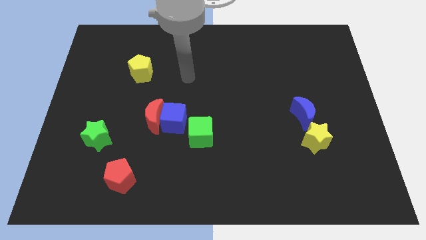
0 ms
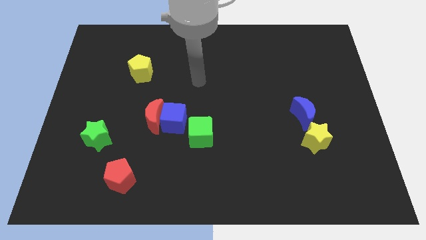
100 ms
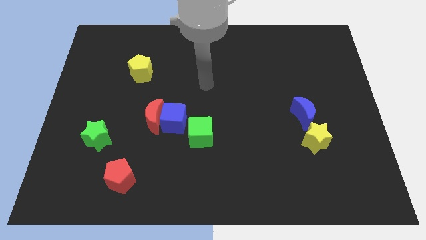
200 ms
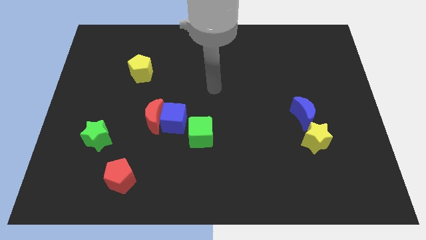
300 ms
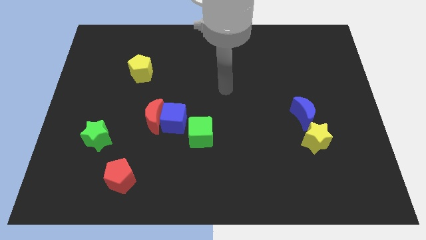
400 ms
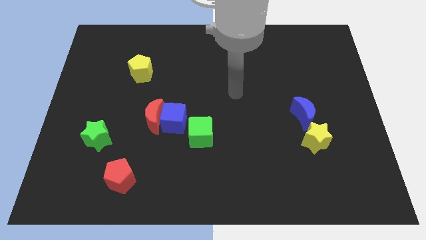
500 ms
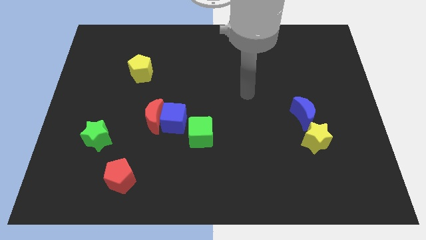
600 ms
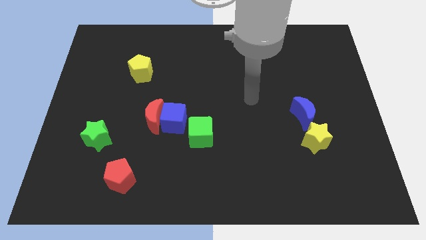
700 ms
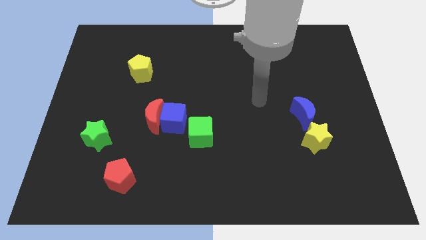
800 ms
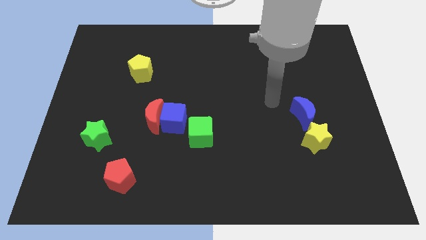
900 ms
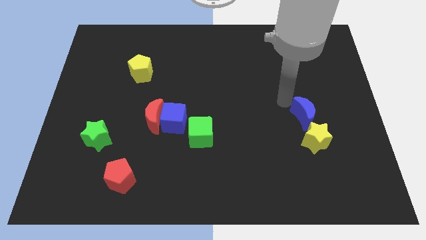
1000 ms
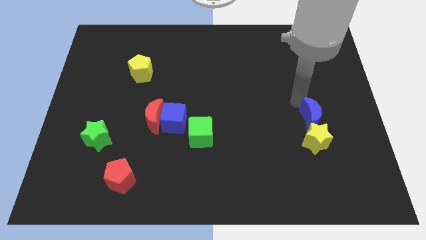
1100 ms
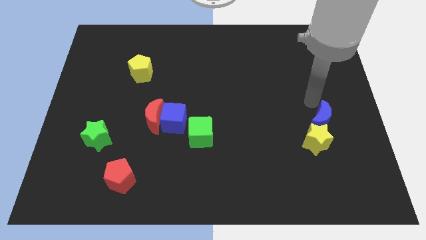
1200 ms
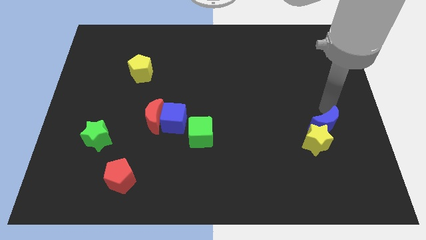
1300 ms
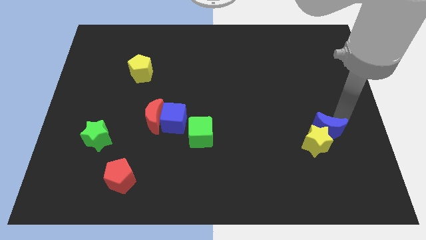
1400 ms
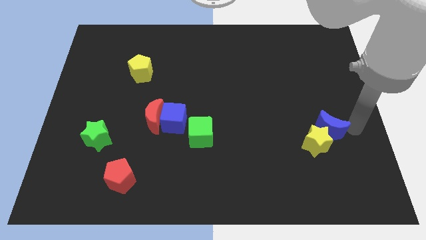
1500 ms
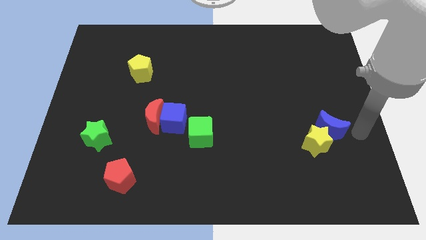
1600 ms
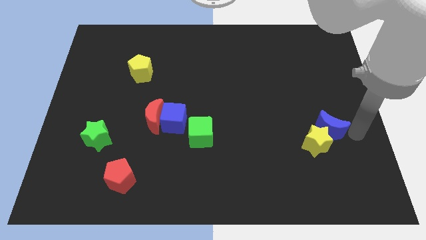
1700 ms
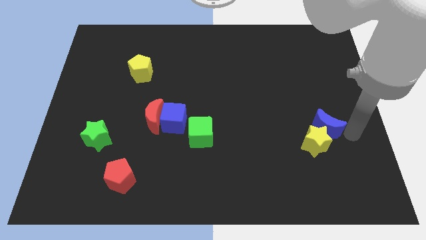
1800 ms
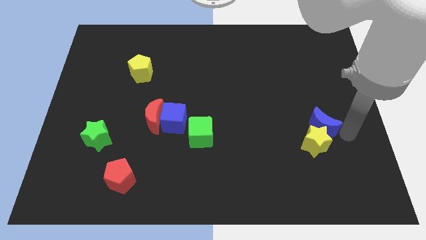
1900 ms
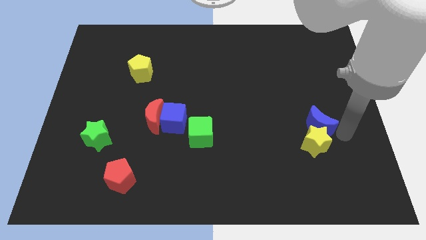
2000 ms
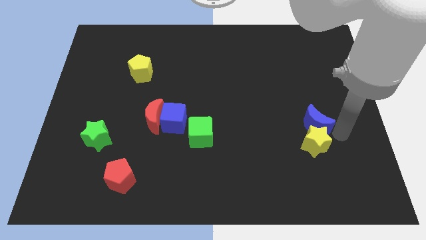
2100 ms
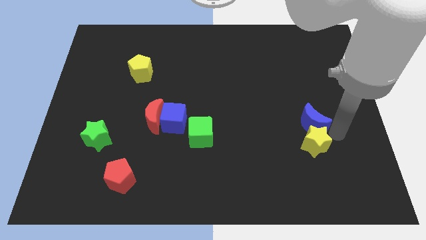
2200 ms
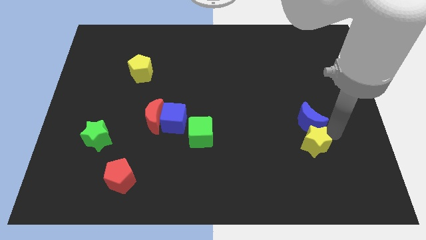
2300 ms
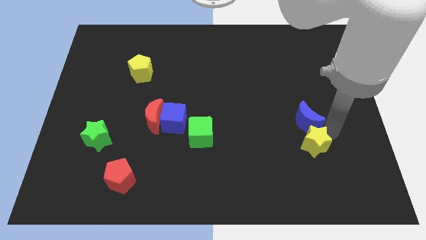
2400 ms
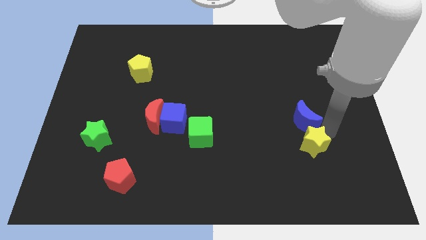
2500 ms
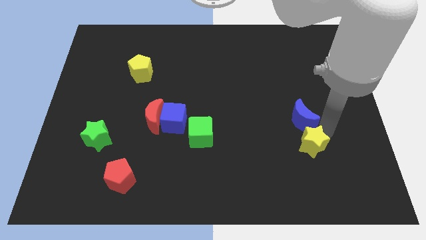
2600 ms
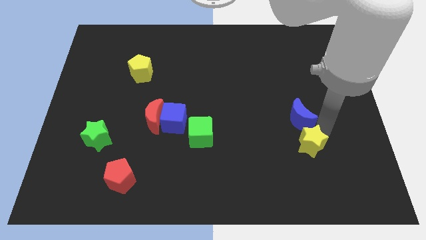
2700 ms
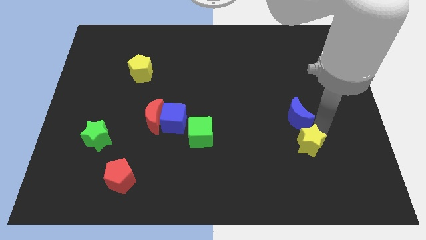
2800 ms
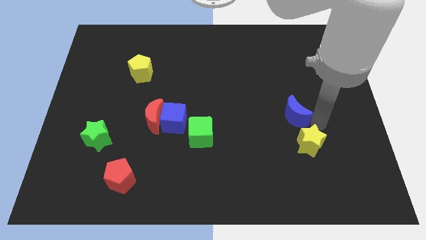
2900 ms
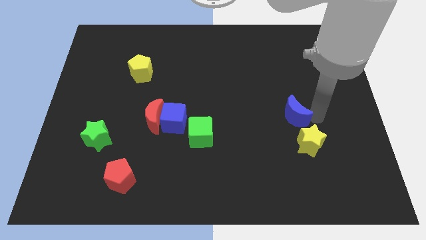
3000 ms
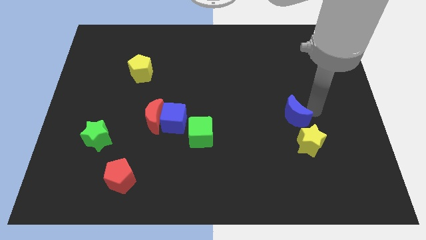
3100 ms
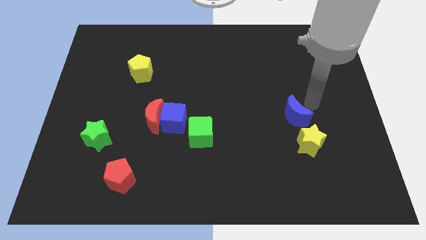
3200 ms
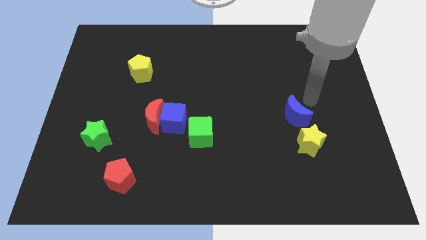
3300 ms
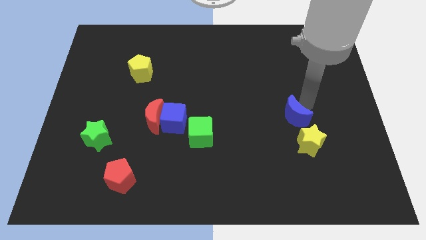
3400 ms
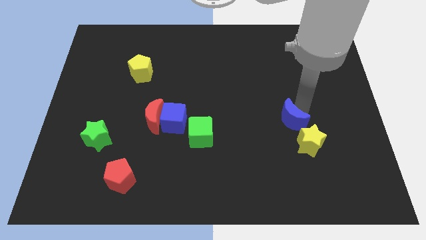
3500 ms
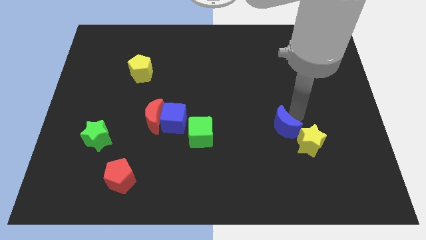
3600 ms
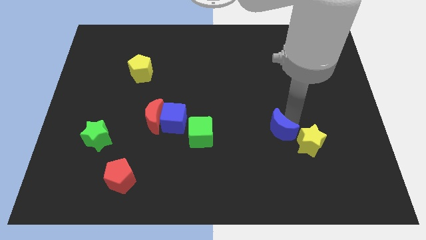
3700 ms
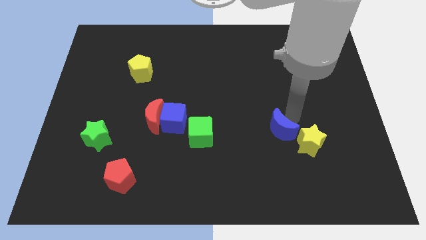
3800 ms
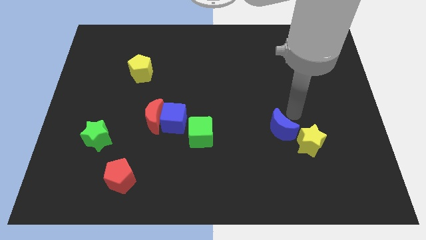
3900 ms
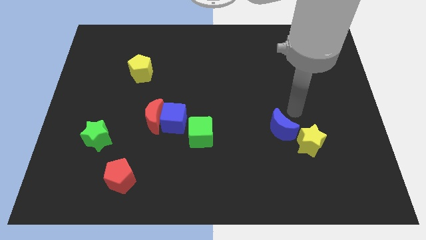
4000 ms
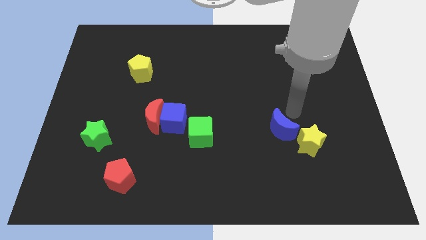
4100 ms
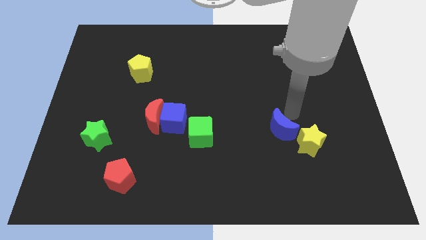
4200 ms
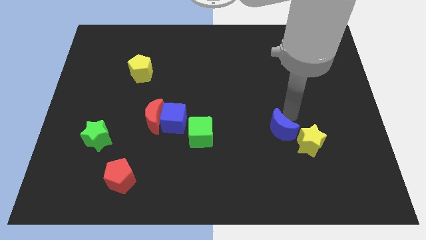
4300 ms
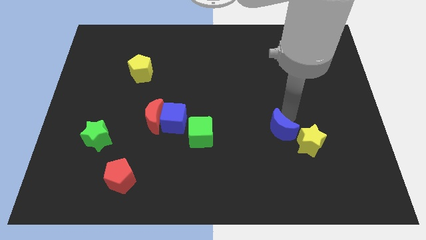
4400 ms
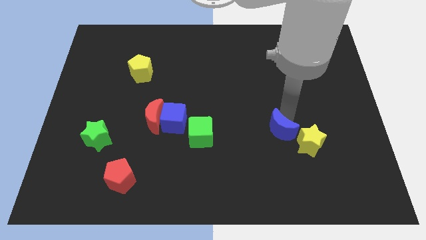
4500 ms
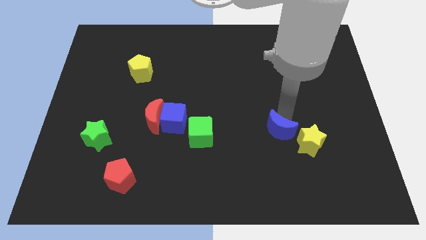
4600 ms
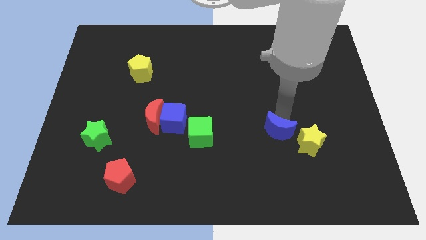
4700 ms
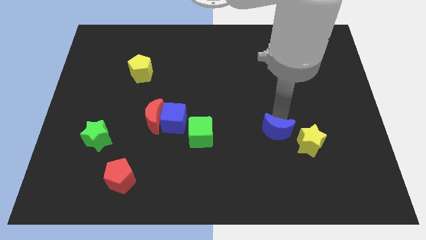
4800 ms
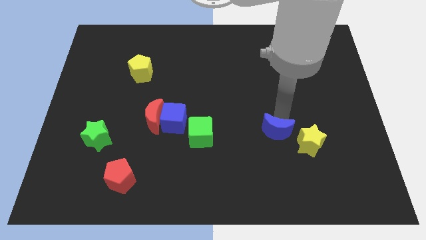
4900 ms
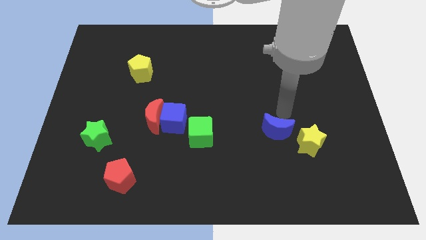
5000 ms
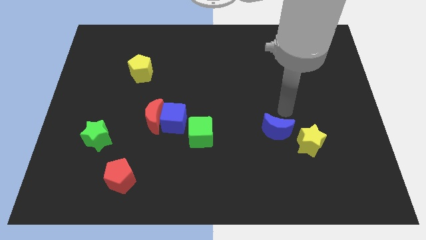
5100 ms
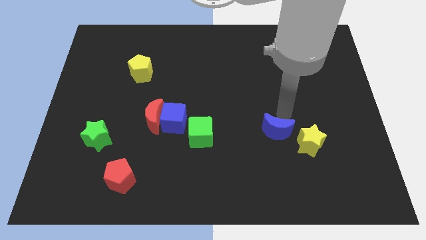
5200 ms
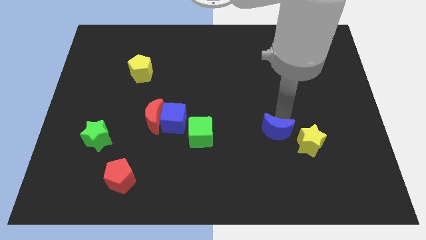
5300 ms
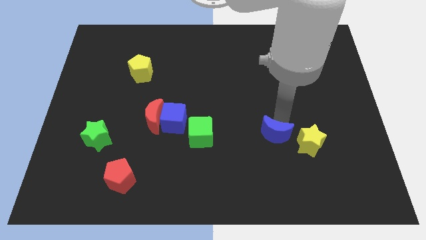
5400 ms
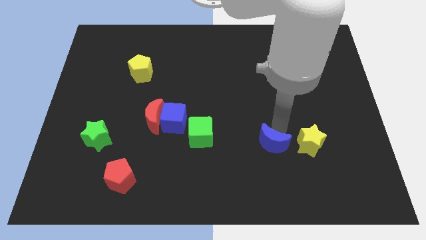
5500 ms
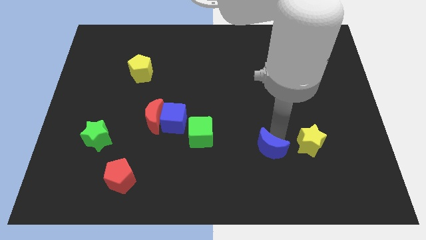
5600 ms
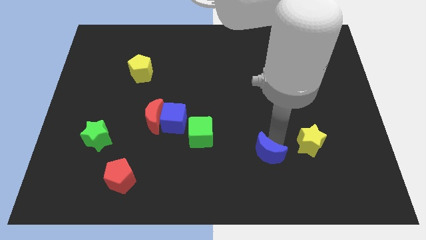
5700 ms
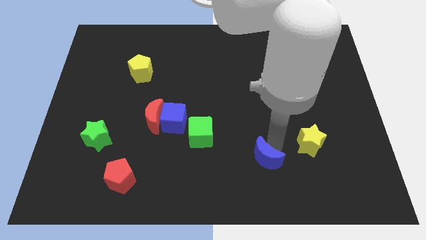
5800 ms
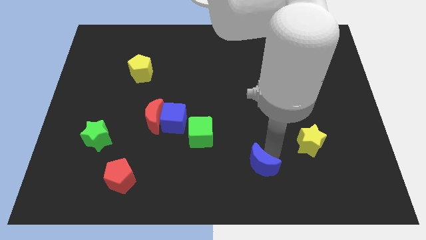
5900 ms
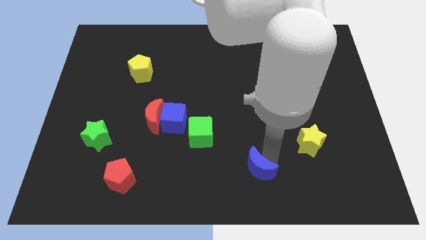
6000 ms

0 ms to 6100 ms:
move the blue moon to the bottom side

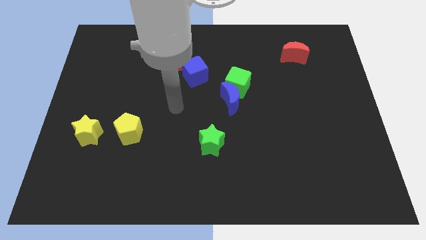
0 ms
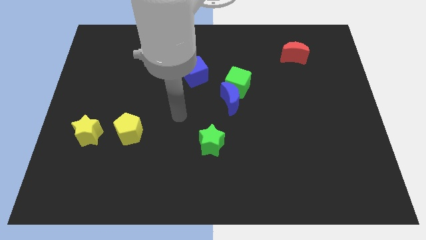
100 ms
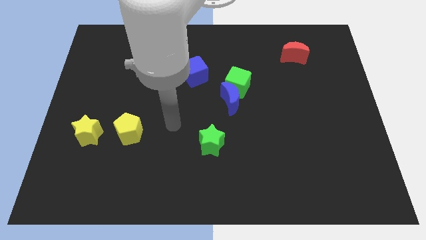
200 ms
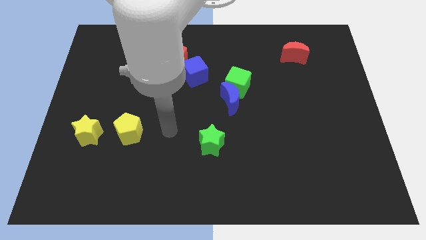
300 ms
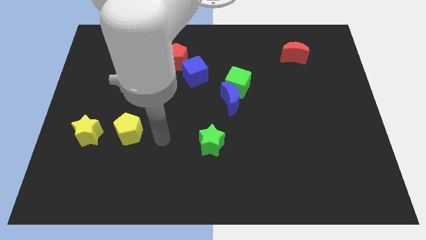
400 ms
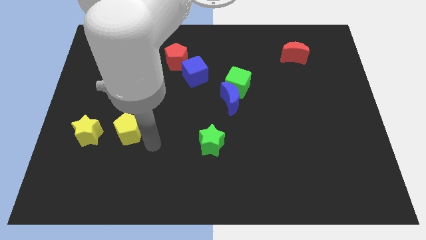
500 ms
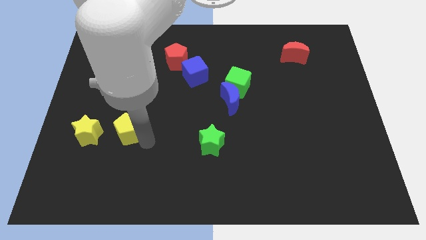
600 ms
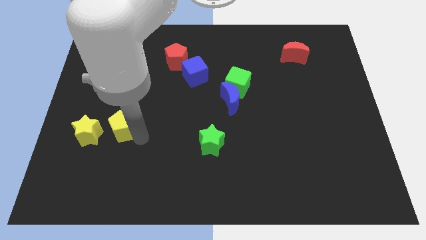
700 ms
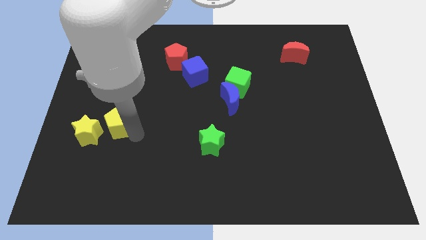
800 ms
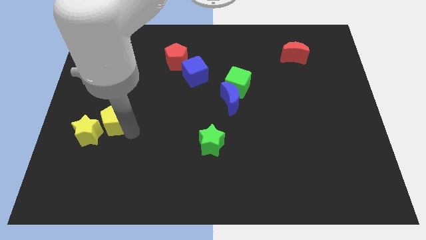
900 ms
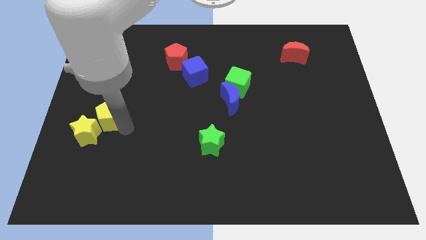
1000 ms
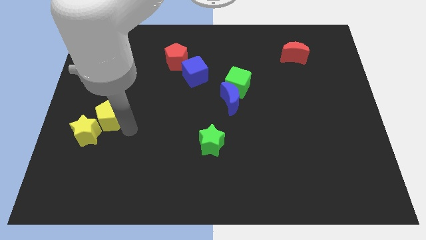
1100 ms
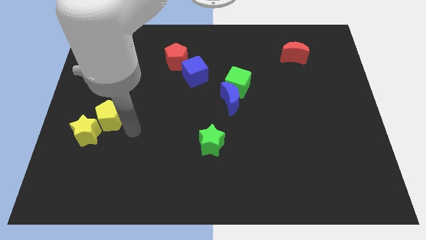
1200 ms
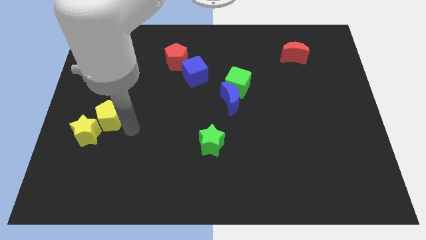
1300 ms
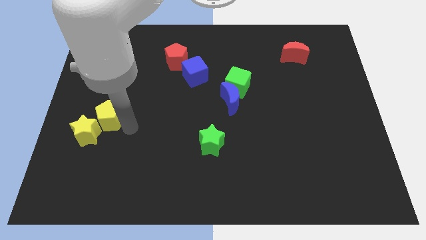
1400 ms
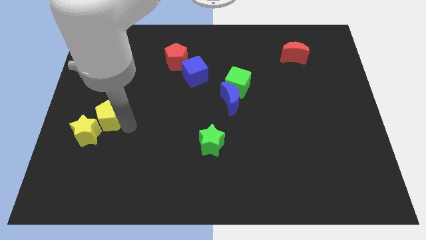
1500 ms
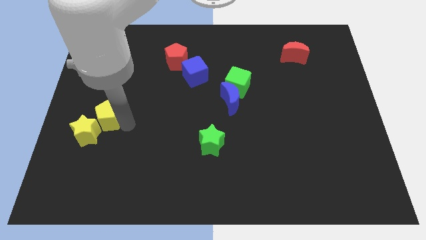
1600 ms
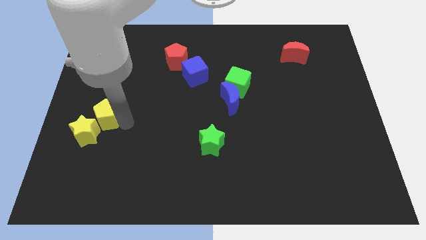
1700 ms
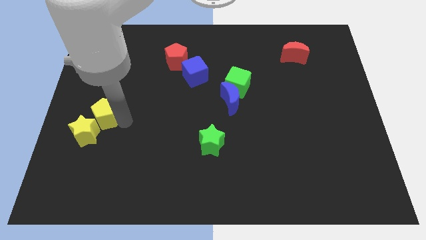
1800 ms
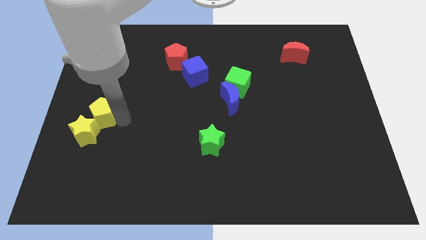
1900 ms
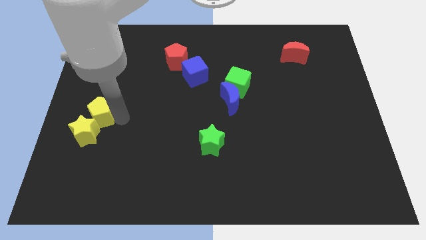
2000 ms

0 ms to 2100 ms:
push the yellow pentagon to the left side
